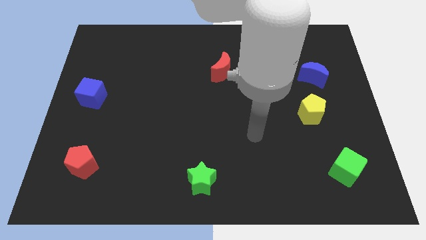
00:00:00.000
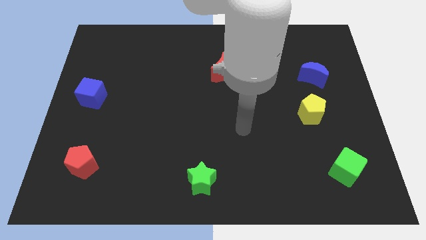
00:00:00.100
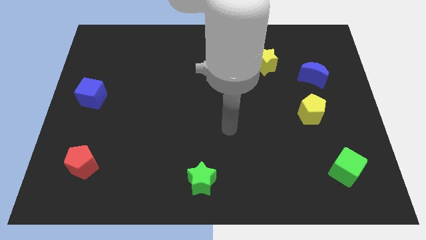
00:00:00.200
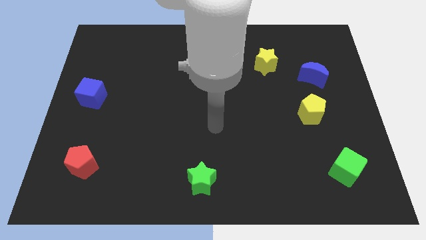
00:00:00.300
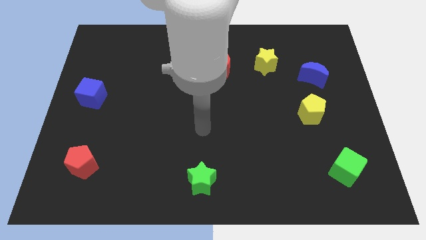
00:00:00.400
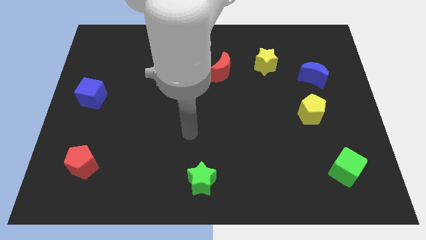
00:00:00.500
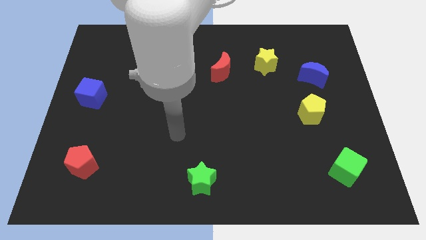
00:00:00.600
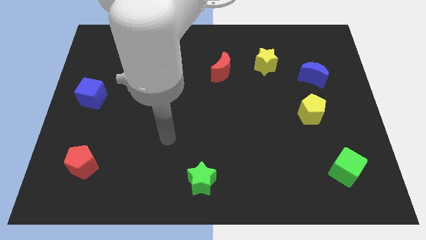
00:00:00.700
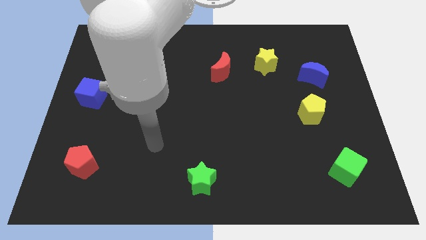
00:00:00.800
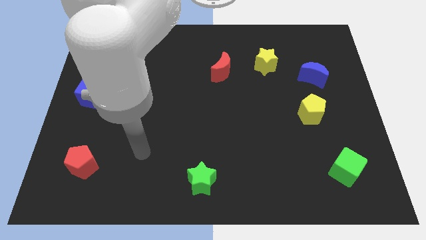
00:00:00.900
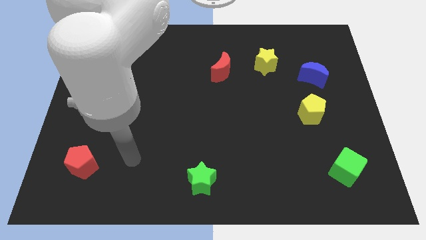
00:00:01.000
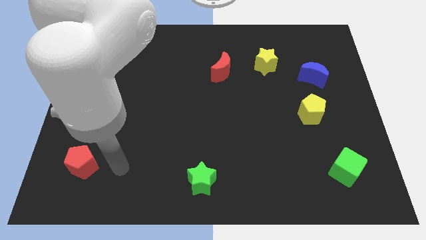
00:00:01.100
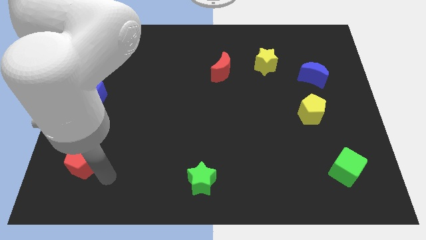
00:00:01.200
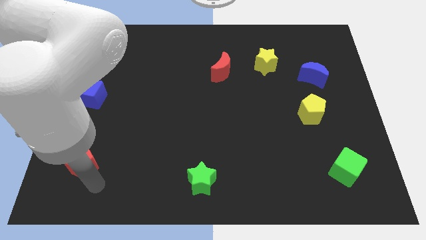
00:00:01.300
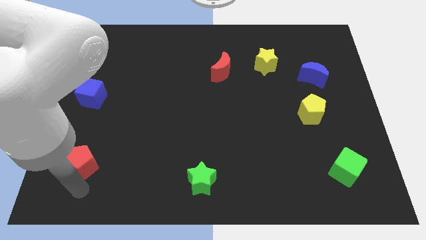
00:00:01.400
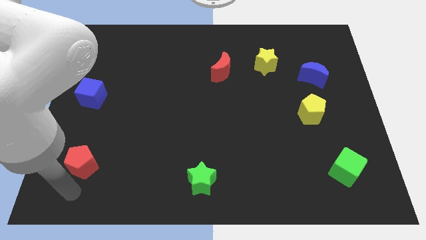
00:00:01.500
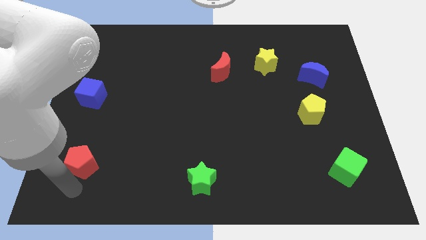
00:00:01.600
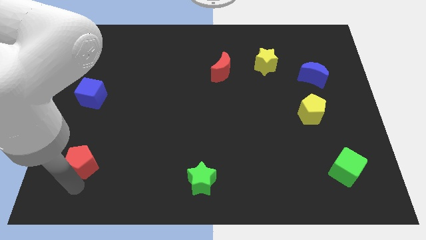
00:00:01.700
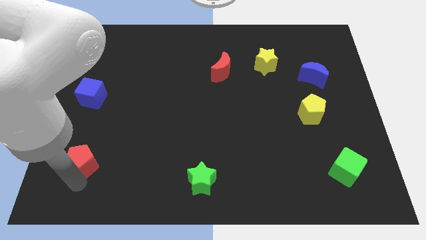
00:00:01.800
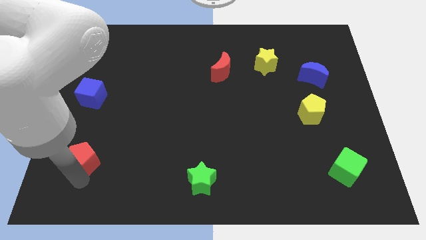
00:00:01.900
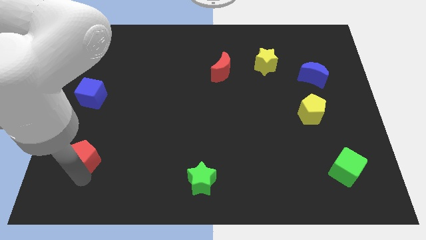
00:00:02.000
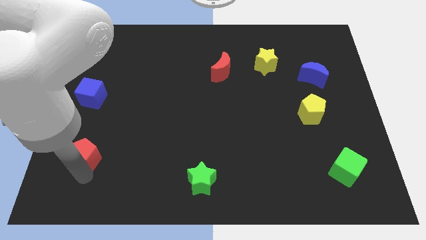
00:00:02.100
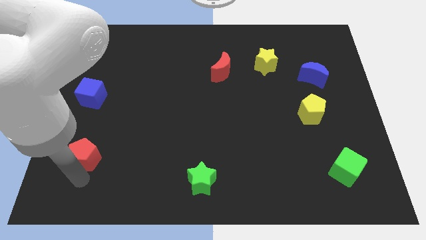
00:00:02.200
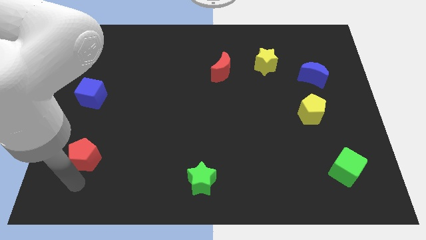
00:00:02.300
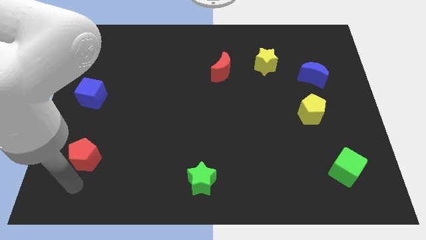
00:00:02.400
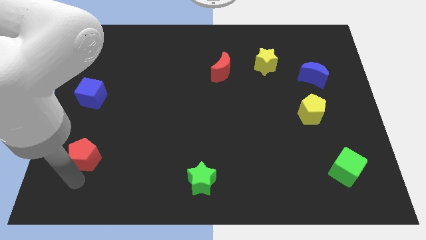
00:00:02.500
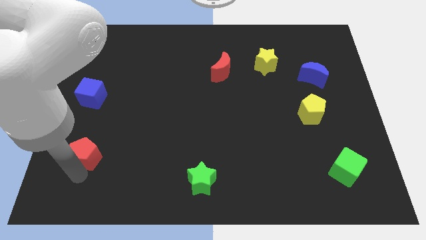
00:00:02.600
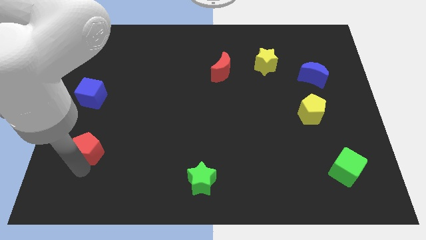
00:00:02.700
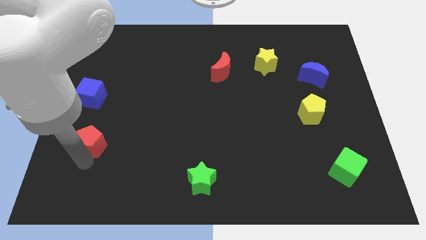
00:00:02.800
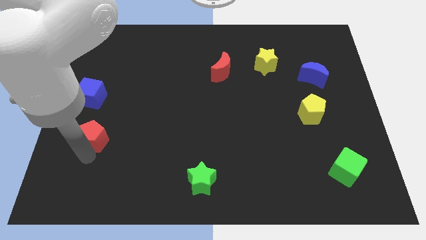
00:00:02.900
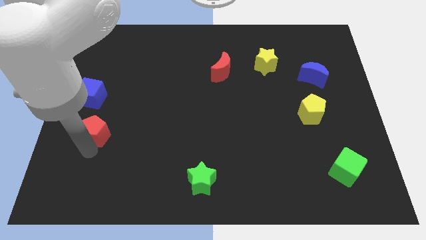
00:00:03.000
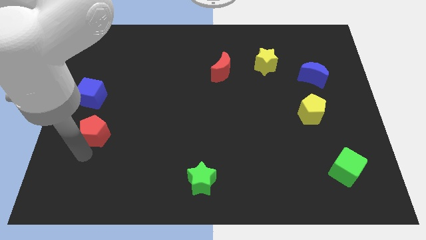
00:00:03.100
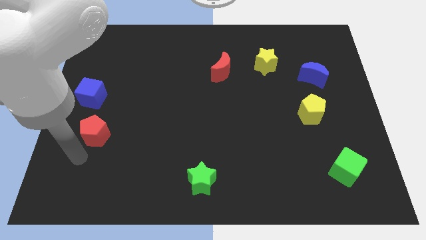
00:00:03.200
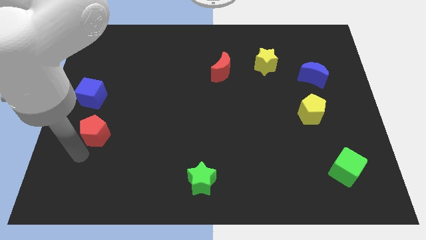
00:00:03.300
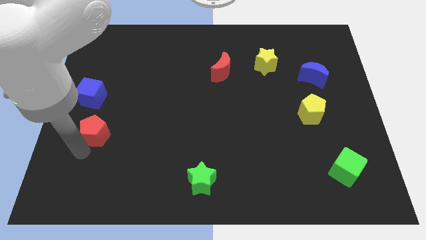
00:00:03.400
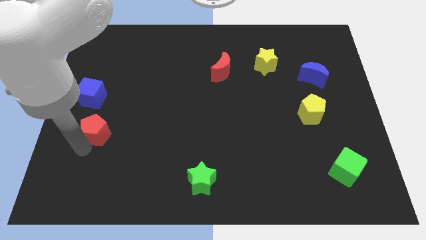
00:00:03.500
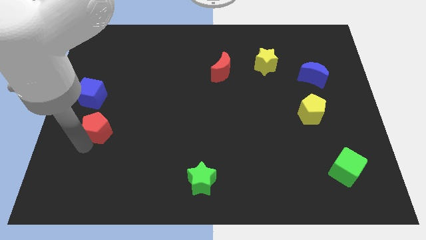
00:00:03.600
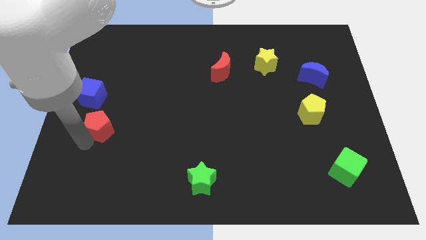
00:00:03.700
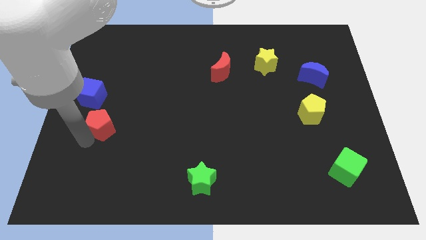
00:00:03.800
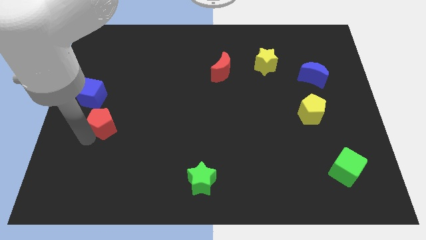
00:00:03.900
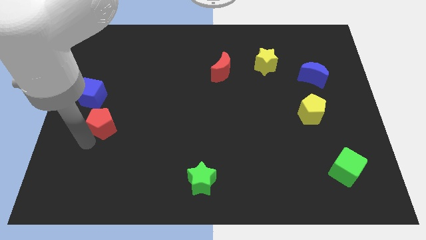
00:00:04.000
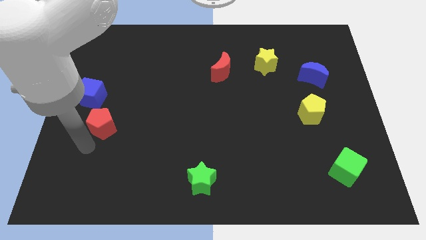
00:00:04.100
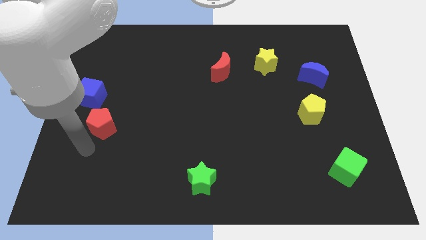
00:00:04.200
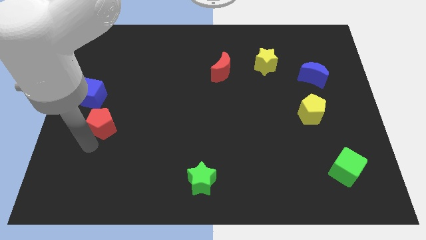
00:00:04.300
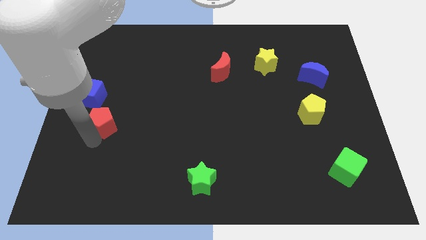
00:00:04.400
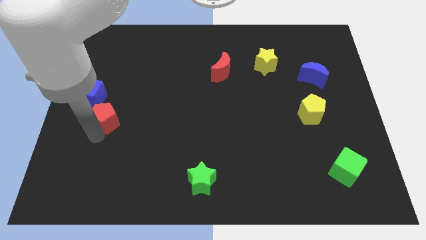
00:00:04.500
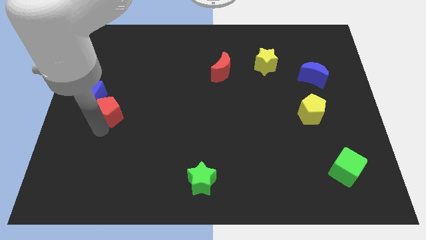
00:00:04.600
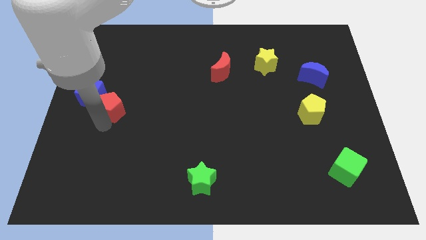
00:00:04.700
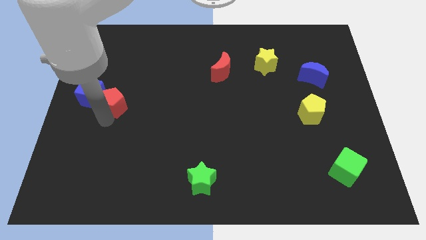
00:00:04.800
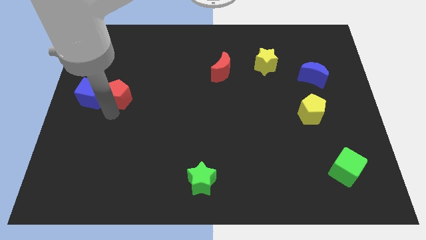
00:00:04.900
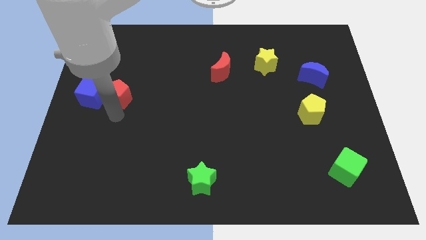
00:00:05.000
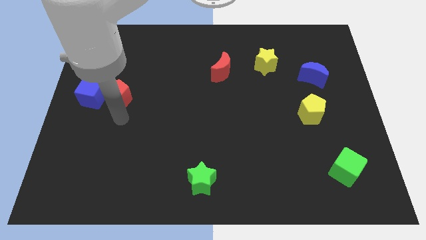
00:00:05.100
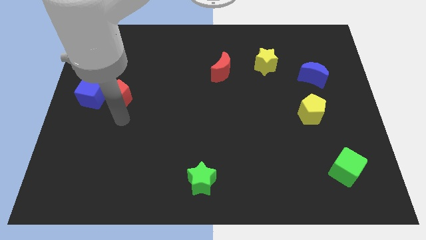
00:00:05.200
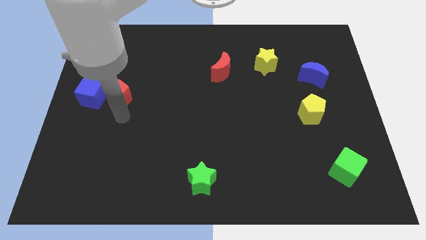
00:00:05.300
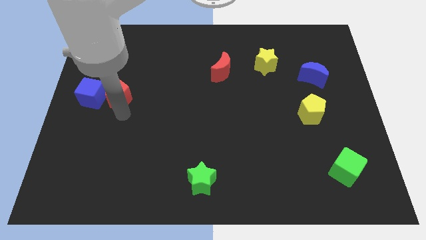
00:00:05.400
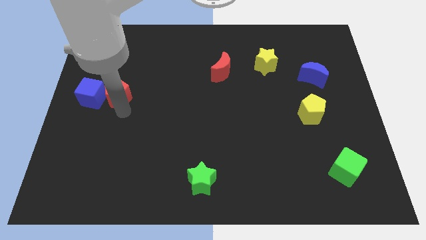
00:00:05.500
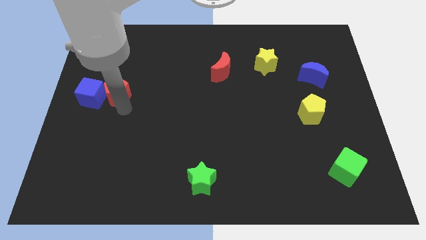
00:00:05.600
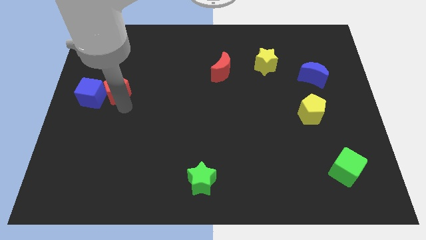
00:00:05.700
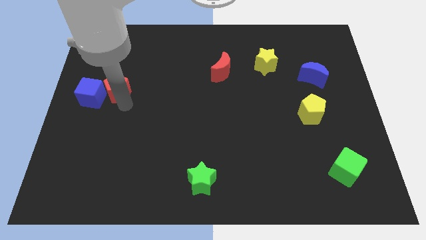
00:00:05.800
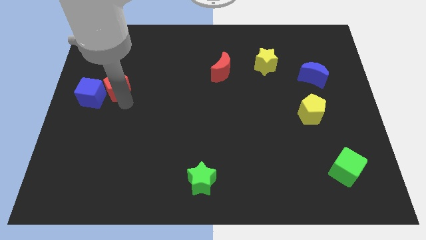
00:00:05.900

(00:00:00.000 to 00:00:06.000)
move the red pentagon up

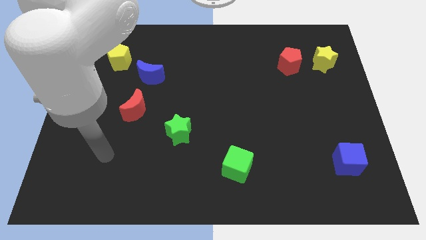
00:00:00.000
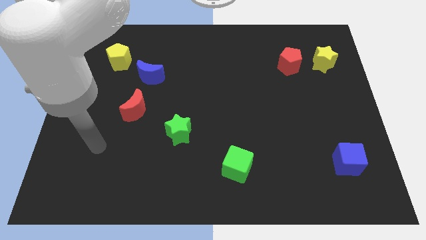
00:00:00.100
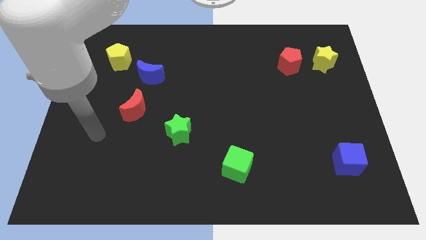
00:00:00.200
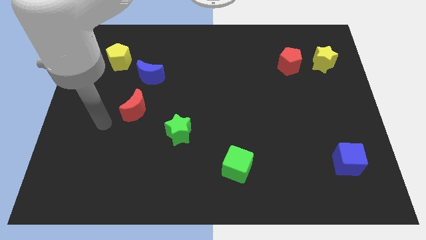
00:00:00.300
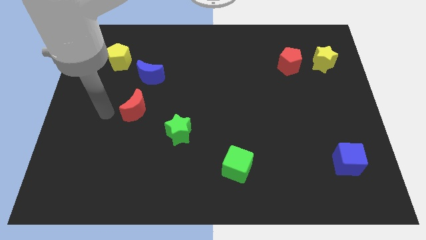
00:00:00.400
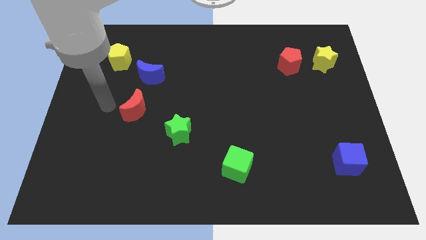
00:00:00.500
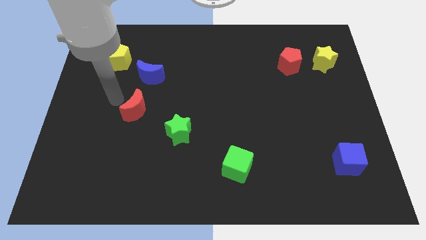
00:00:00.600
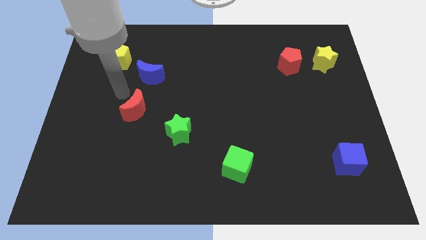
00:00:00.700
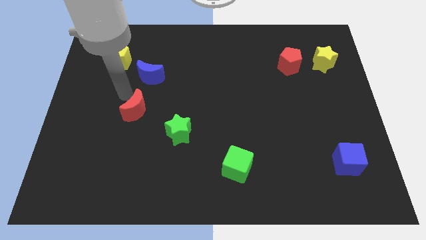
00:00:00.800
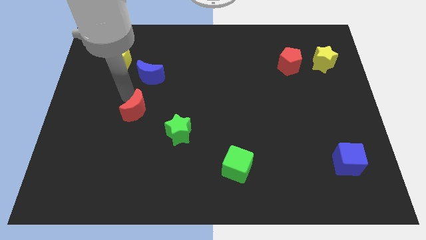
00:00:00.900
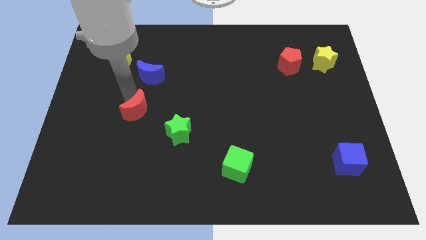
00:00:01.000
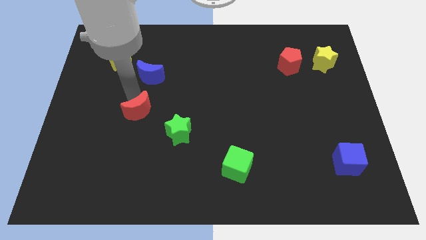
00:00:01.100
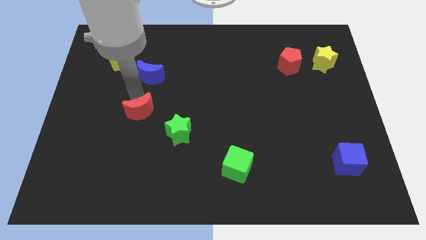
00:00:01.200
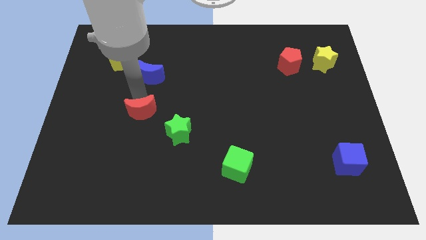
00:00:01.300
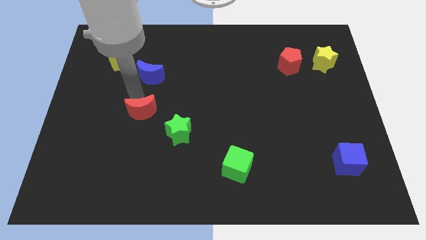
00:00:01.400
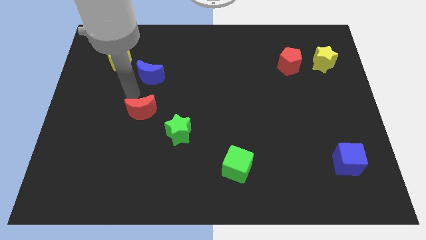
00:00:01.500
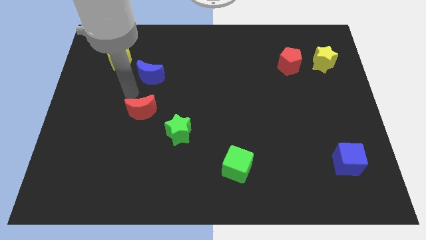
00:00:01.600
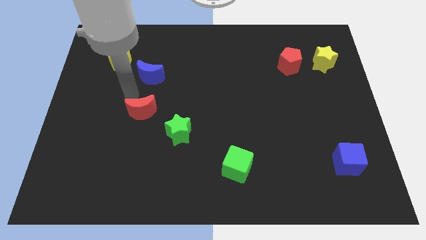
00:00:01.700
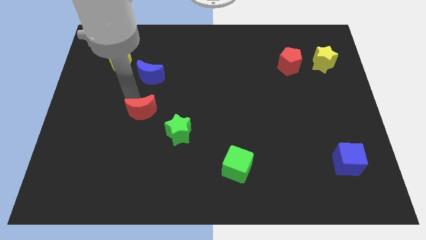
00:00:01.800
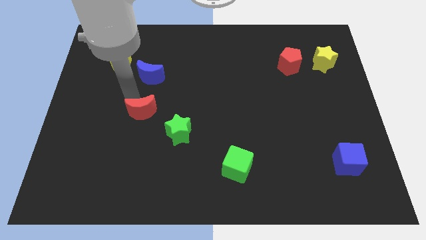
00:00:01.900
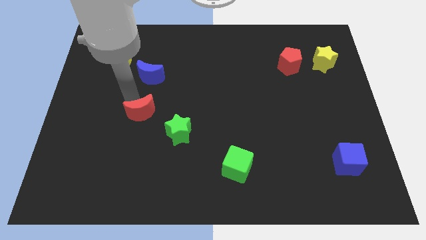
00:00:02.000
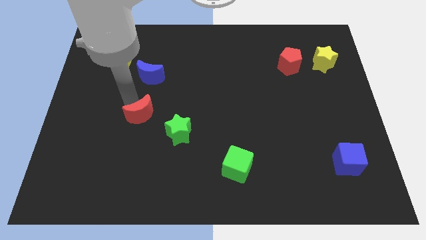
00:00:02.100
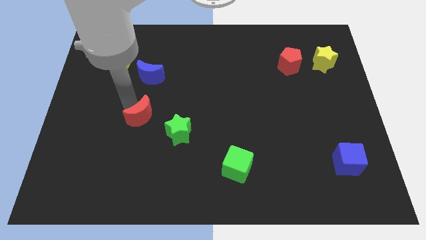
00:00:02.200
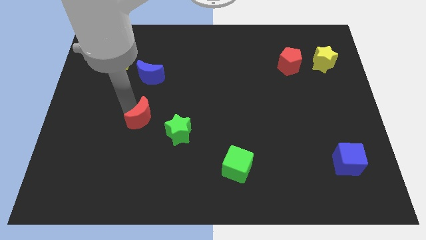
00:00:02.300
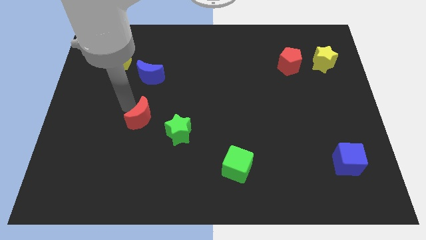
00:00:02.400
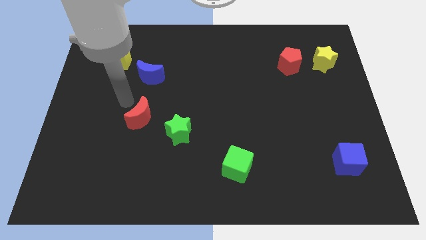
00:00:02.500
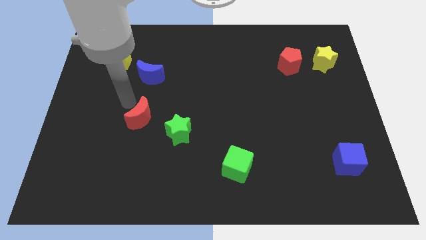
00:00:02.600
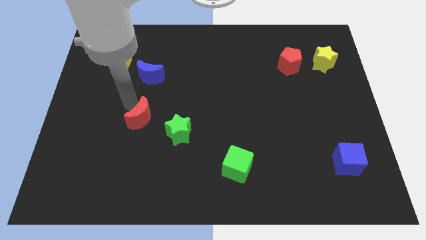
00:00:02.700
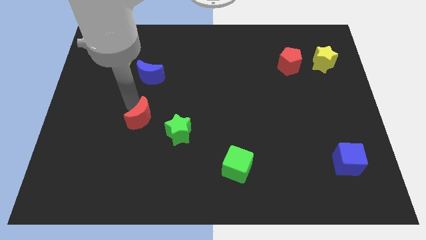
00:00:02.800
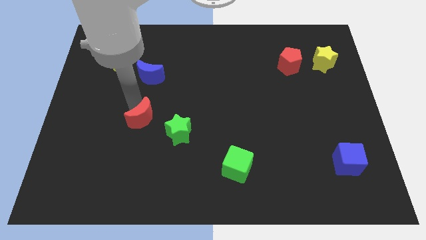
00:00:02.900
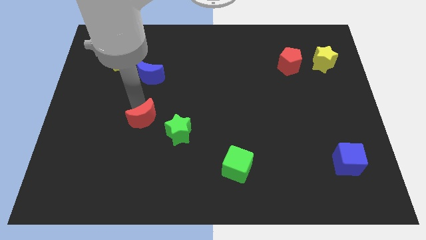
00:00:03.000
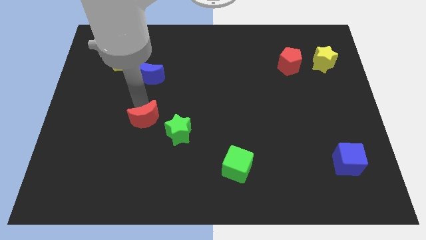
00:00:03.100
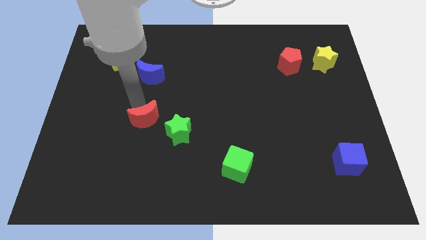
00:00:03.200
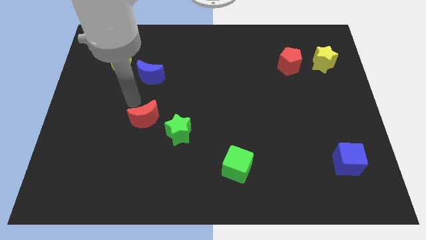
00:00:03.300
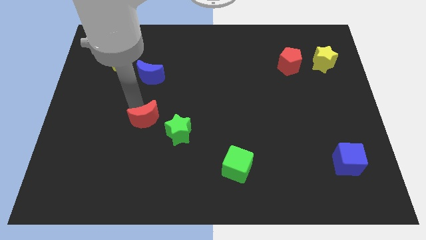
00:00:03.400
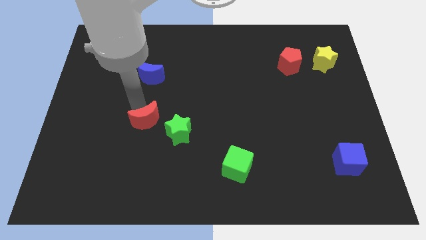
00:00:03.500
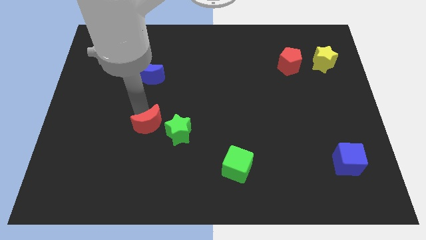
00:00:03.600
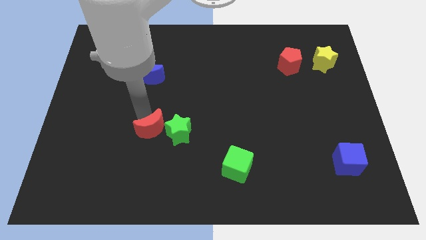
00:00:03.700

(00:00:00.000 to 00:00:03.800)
slide the red moon a little bit diagonally down and right
